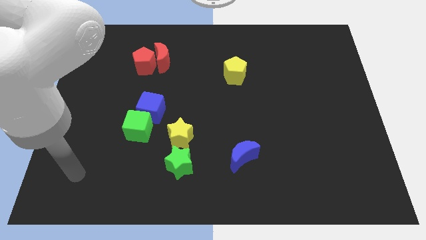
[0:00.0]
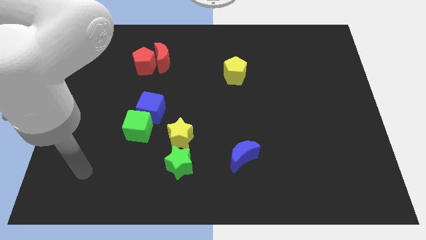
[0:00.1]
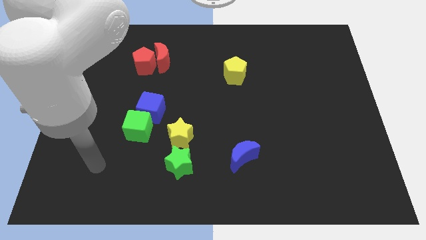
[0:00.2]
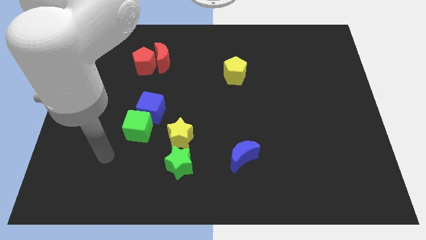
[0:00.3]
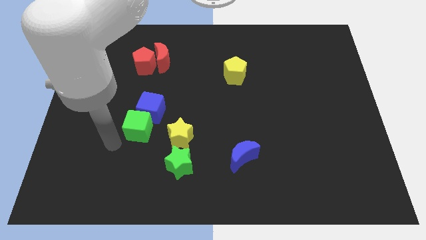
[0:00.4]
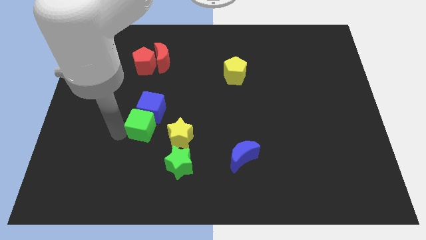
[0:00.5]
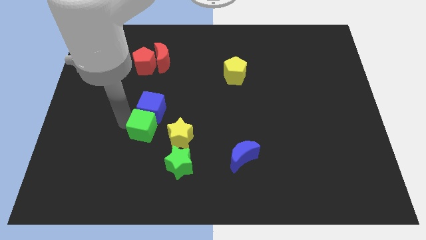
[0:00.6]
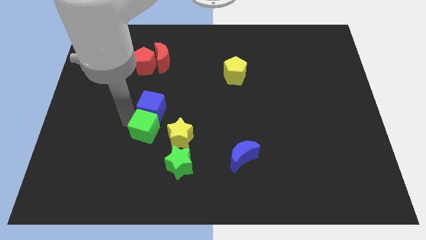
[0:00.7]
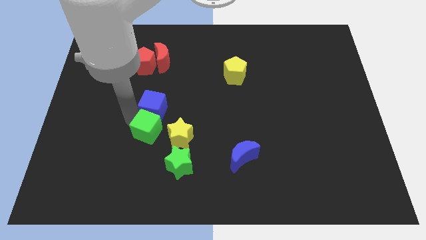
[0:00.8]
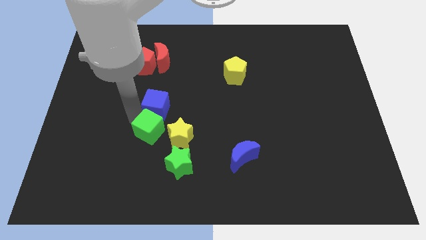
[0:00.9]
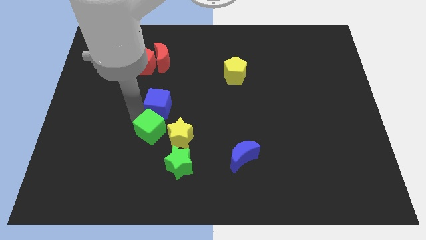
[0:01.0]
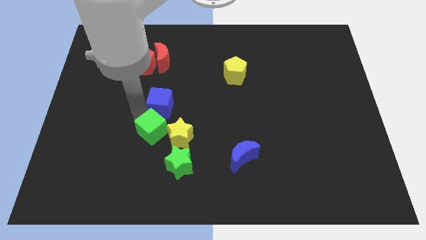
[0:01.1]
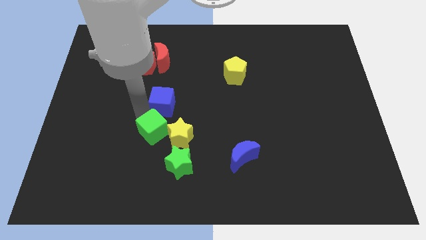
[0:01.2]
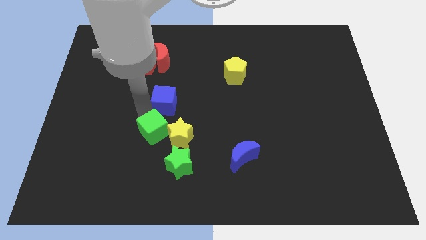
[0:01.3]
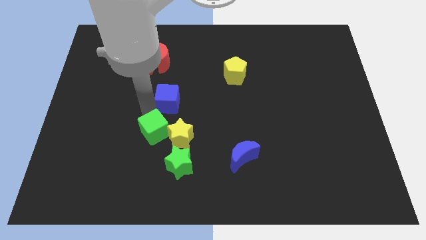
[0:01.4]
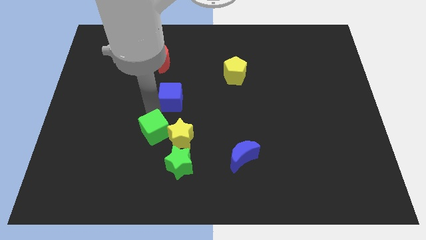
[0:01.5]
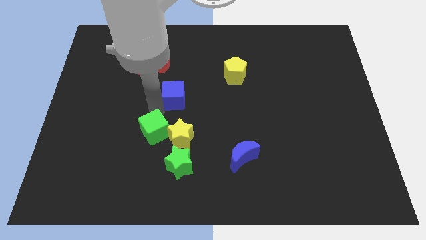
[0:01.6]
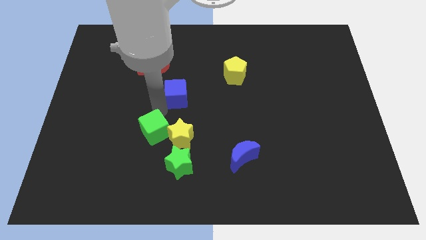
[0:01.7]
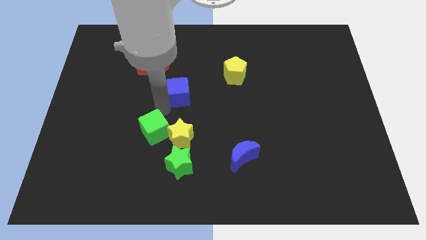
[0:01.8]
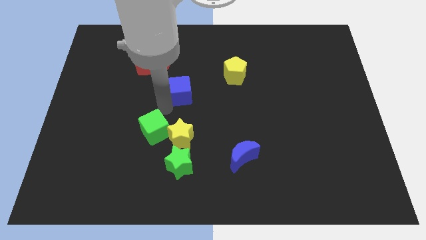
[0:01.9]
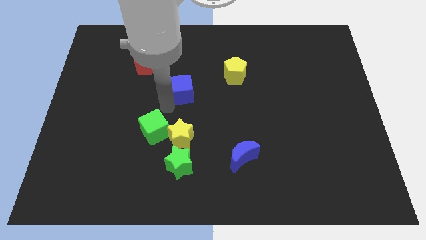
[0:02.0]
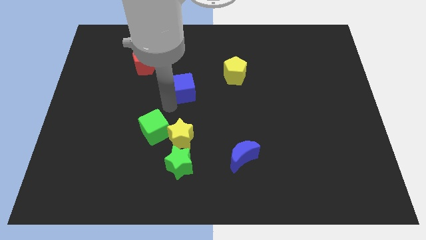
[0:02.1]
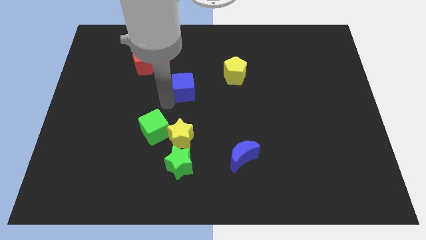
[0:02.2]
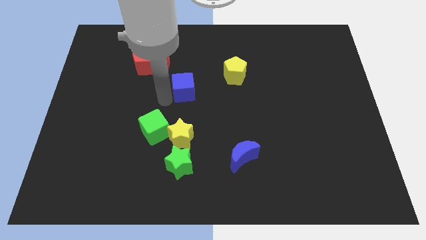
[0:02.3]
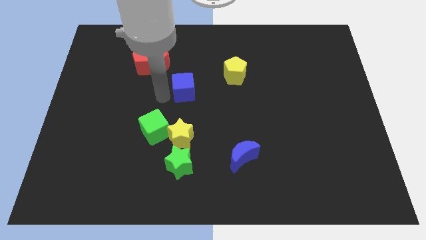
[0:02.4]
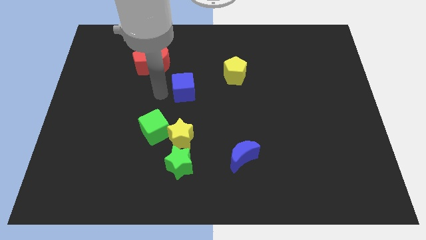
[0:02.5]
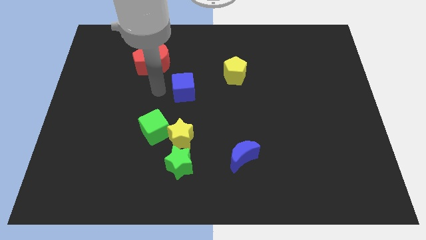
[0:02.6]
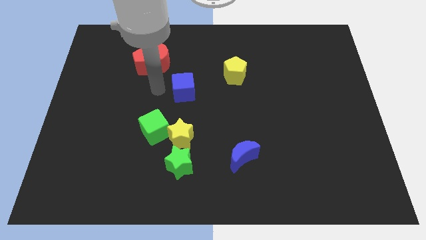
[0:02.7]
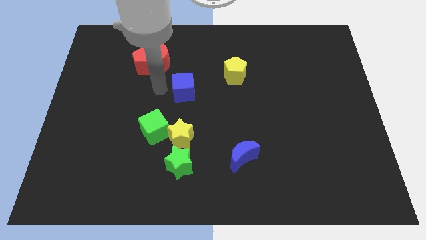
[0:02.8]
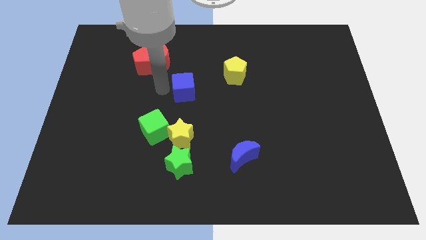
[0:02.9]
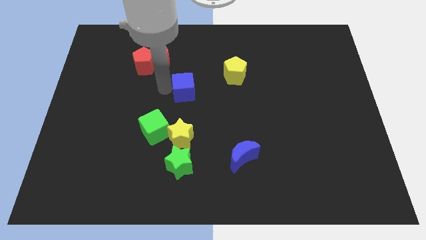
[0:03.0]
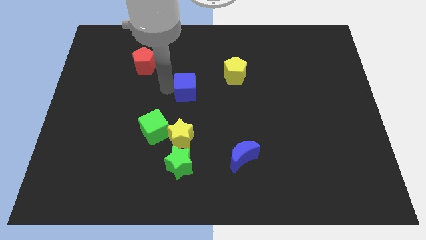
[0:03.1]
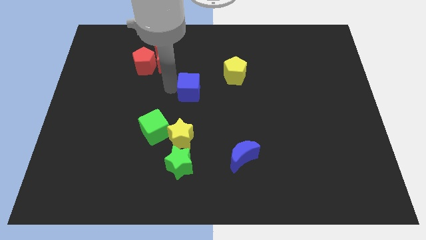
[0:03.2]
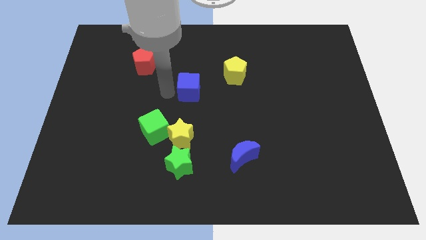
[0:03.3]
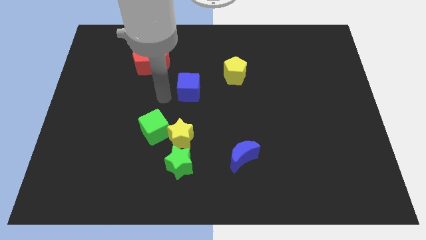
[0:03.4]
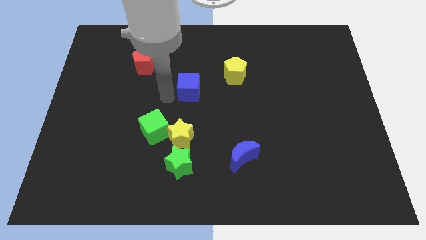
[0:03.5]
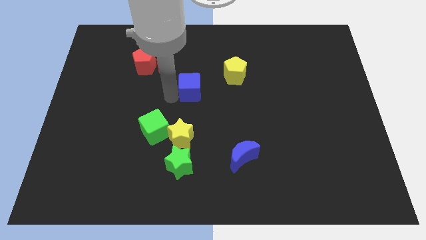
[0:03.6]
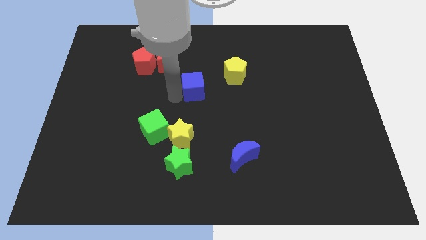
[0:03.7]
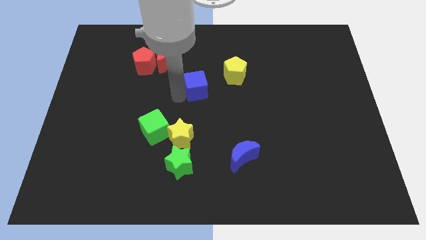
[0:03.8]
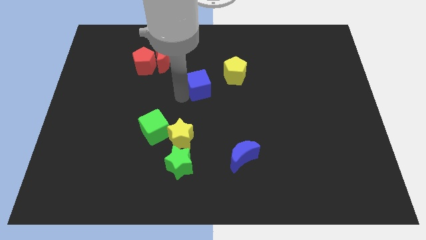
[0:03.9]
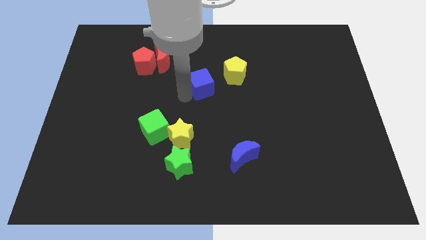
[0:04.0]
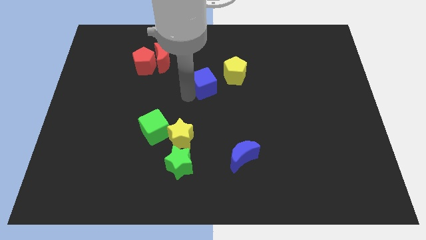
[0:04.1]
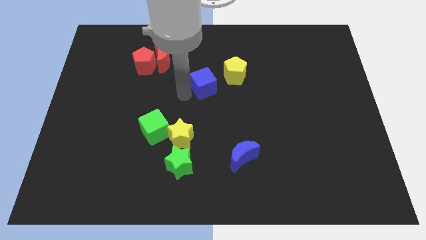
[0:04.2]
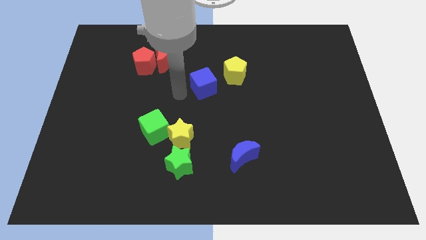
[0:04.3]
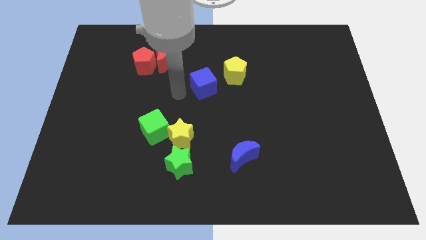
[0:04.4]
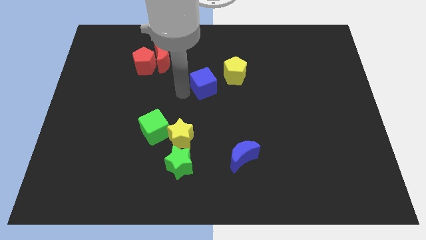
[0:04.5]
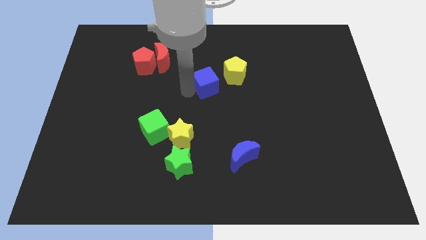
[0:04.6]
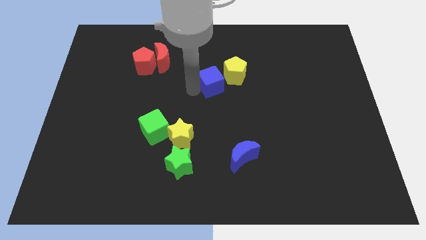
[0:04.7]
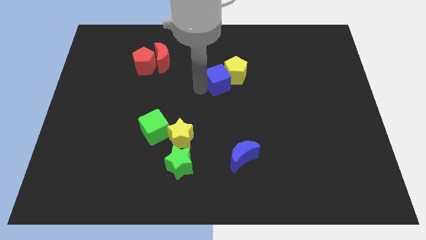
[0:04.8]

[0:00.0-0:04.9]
put the blue cube to the yellow pentagon

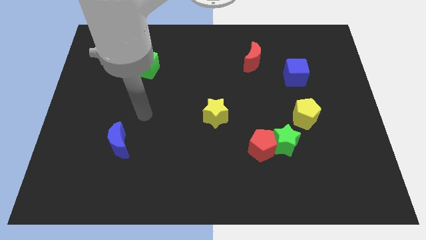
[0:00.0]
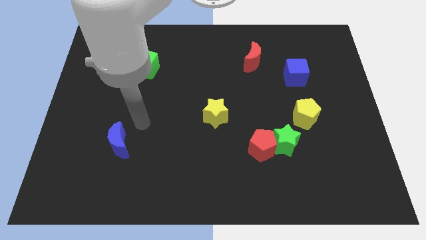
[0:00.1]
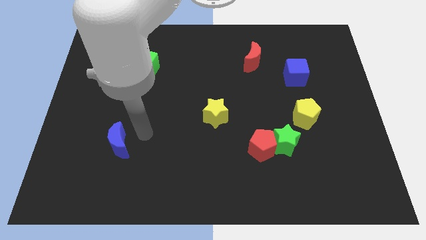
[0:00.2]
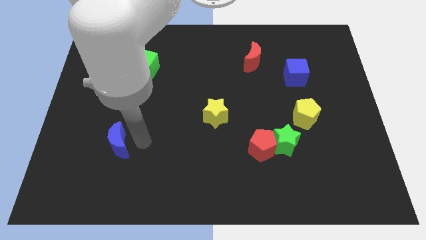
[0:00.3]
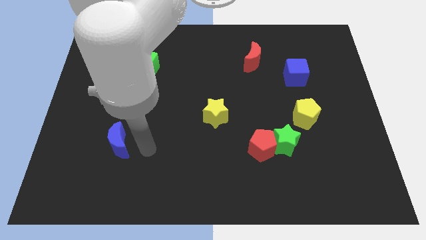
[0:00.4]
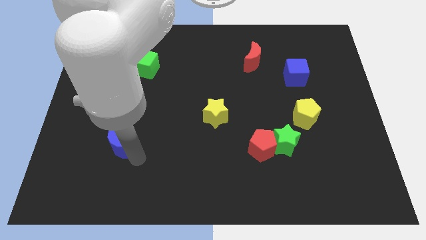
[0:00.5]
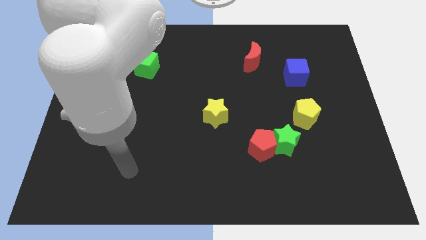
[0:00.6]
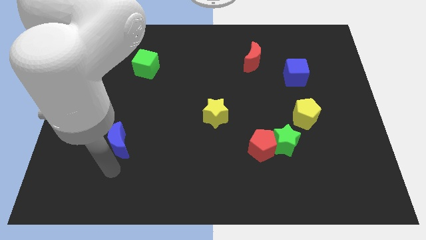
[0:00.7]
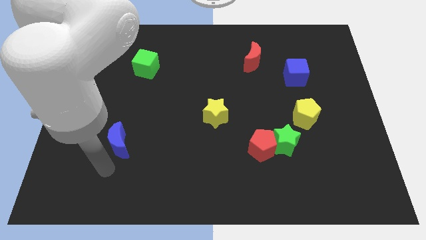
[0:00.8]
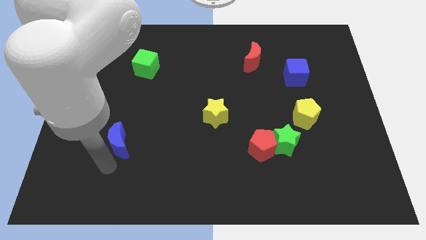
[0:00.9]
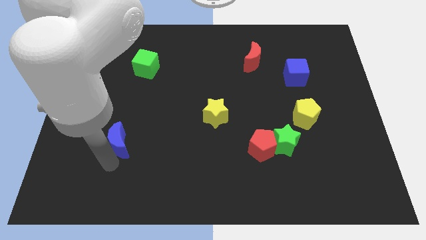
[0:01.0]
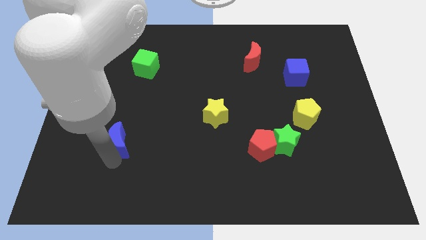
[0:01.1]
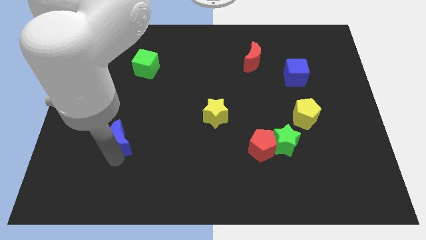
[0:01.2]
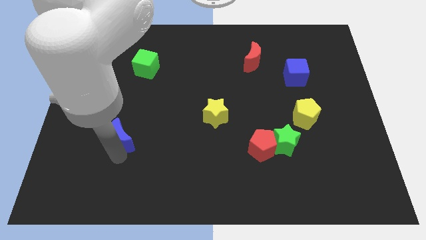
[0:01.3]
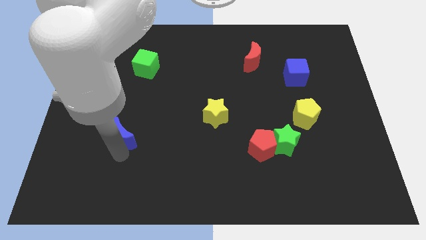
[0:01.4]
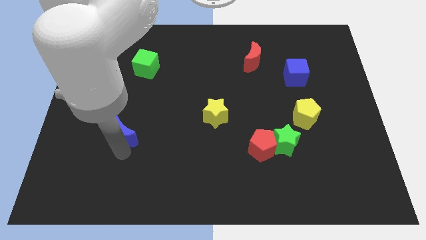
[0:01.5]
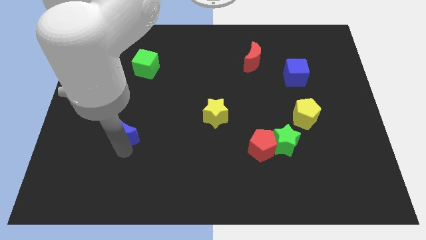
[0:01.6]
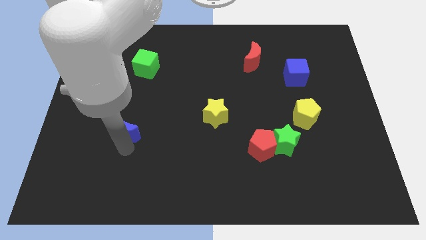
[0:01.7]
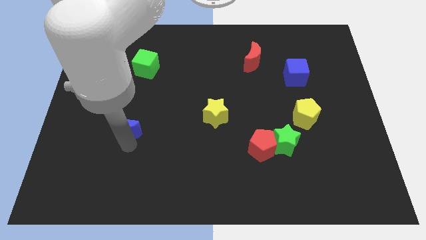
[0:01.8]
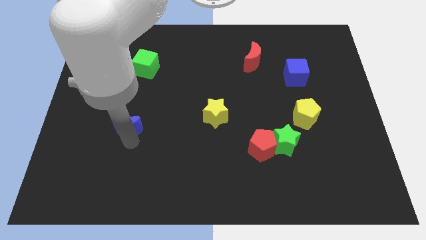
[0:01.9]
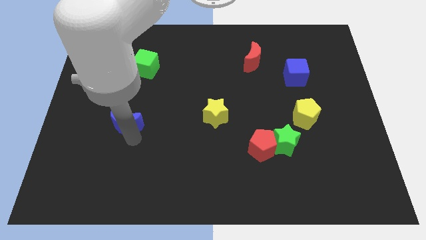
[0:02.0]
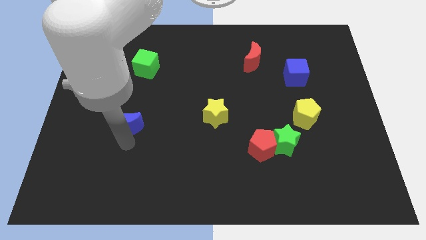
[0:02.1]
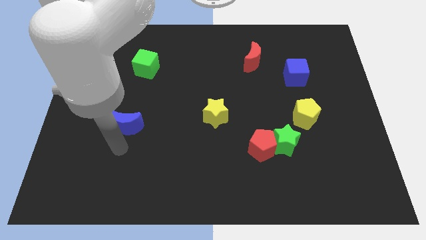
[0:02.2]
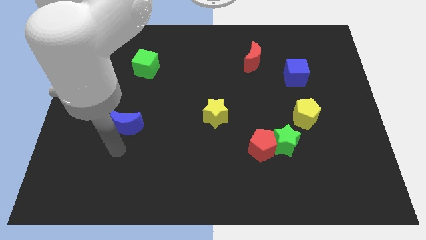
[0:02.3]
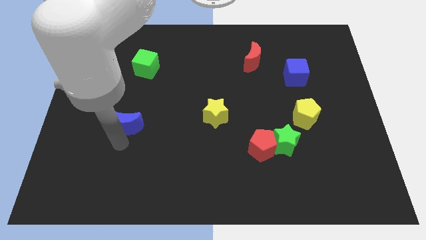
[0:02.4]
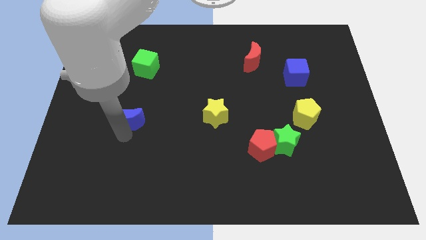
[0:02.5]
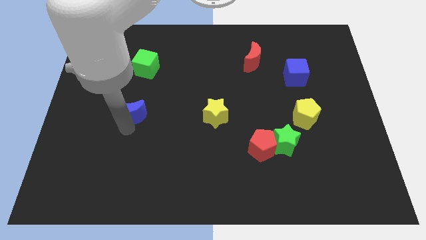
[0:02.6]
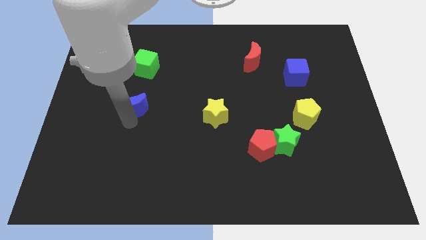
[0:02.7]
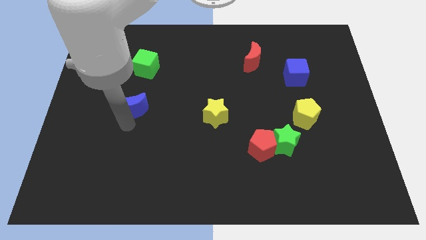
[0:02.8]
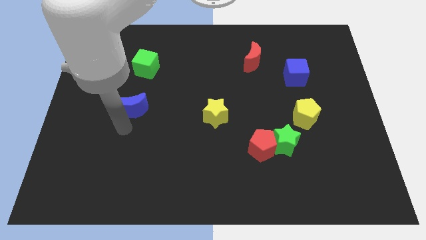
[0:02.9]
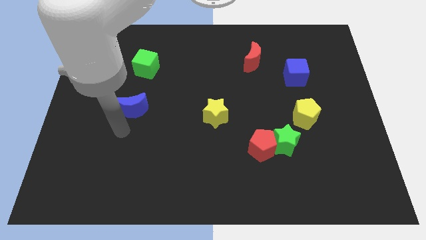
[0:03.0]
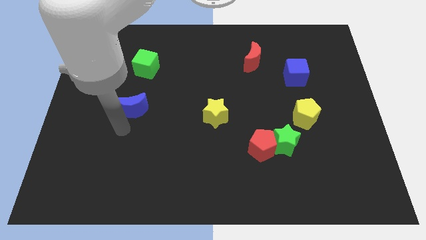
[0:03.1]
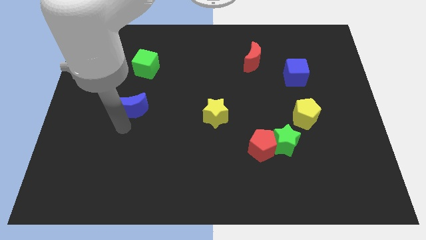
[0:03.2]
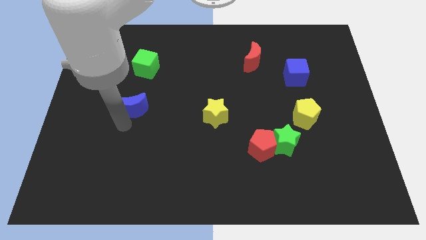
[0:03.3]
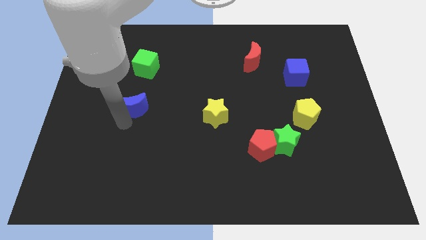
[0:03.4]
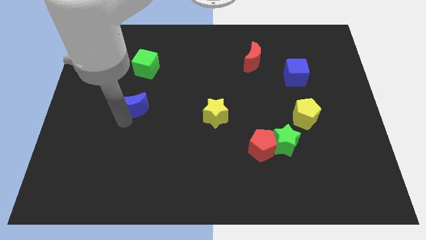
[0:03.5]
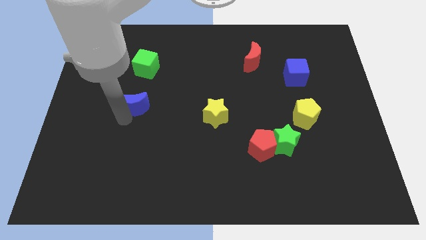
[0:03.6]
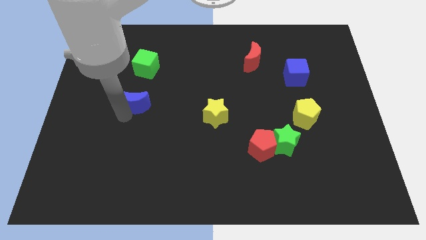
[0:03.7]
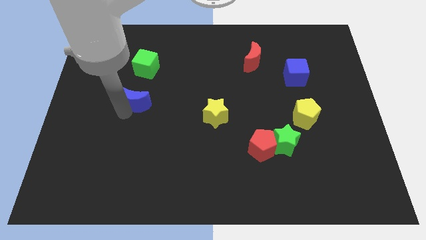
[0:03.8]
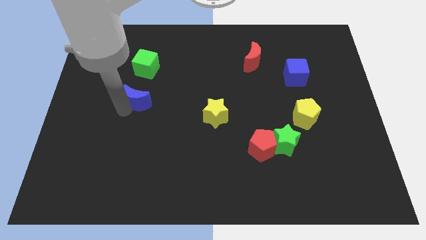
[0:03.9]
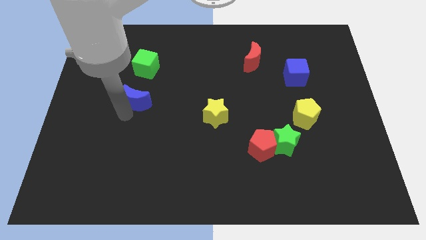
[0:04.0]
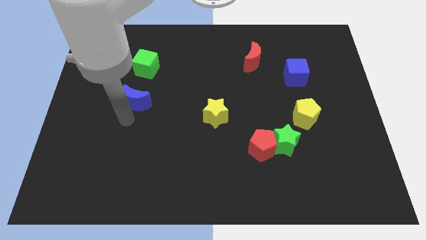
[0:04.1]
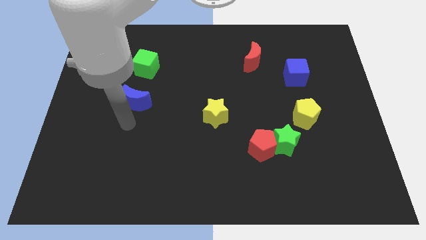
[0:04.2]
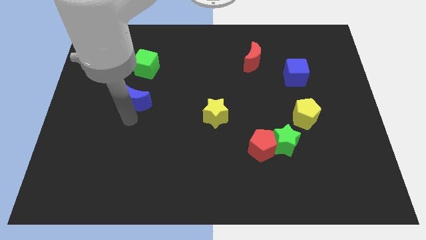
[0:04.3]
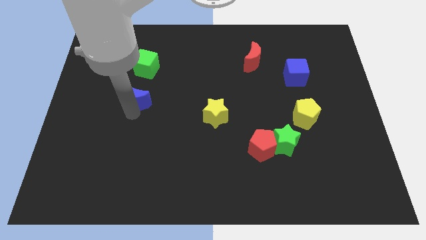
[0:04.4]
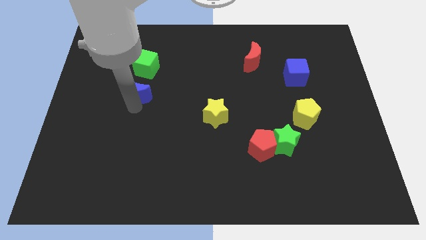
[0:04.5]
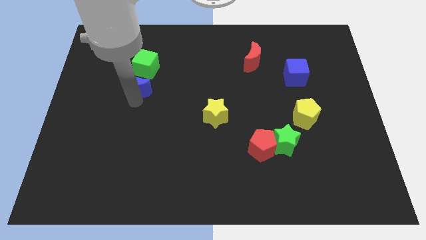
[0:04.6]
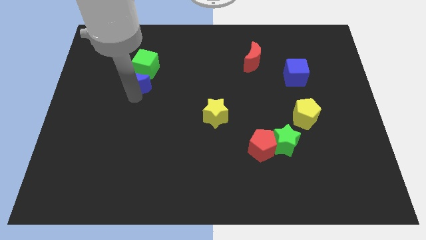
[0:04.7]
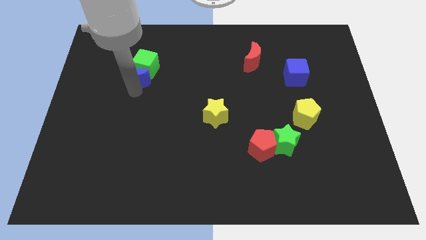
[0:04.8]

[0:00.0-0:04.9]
slide the blue moon to the green cube
